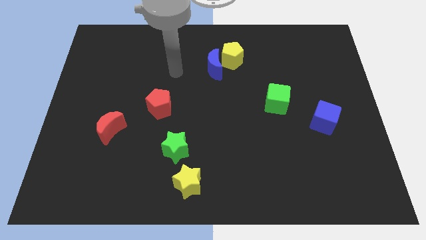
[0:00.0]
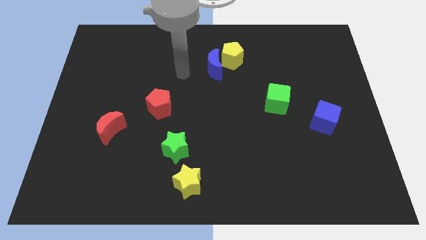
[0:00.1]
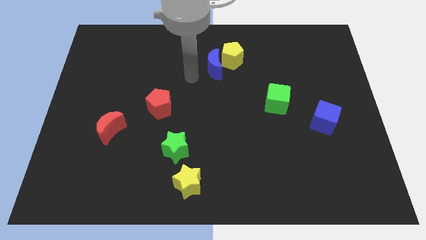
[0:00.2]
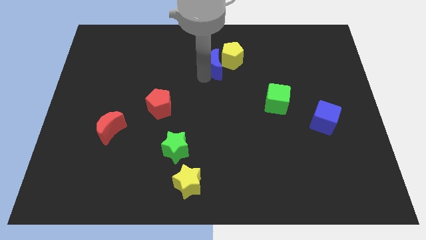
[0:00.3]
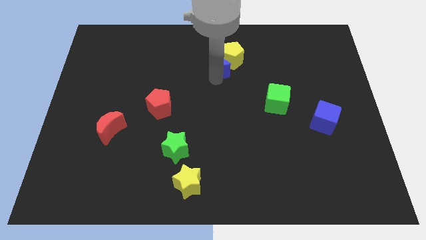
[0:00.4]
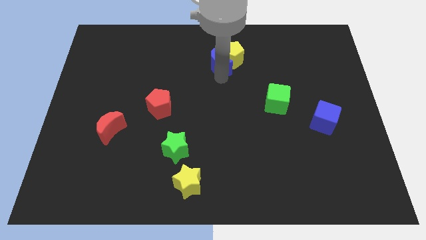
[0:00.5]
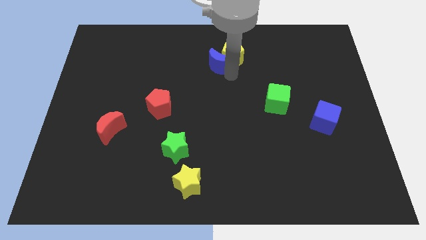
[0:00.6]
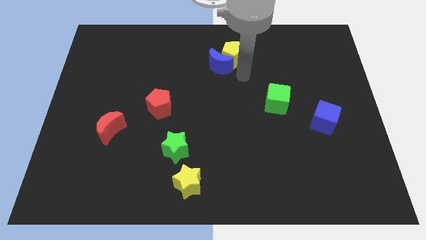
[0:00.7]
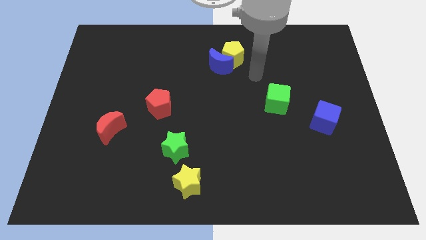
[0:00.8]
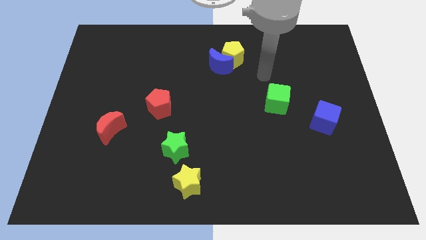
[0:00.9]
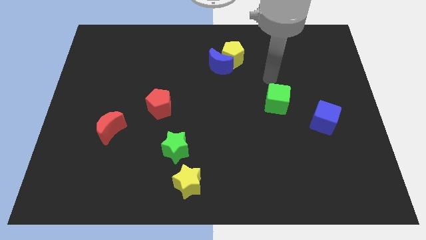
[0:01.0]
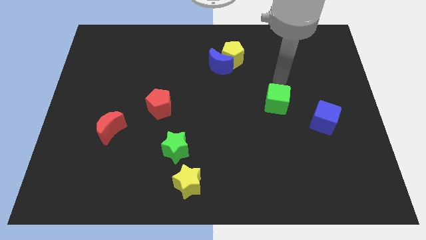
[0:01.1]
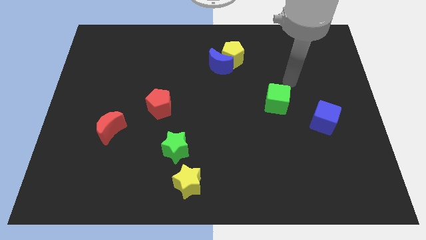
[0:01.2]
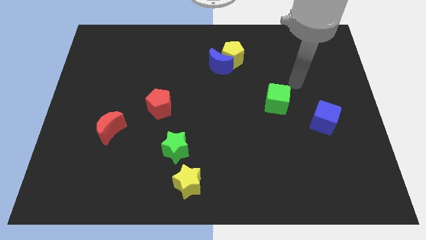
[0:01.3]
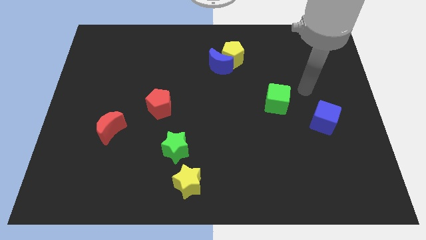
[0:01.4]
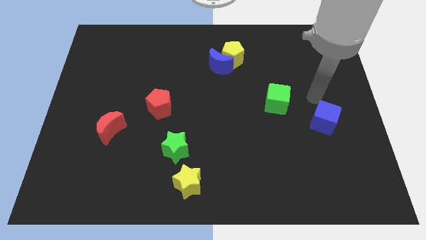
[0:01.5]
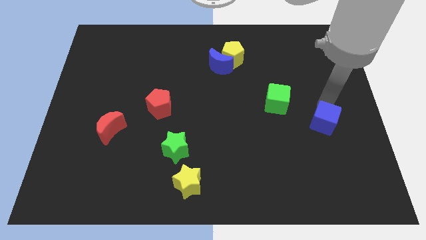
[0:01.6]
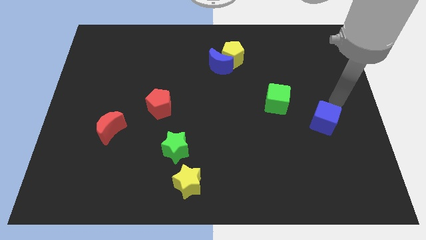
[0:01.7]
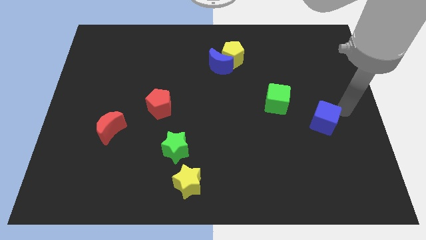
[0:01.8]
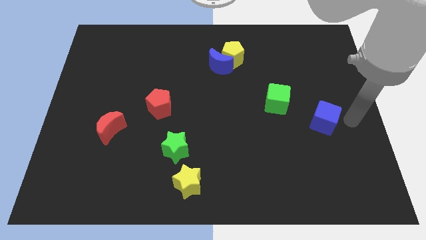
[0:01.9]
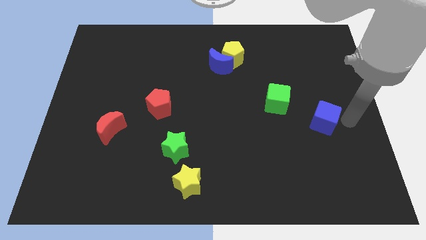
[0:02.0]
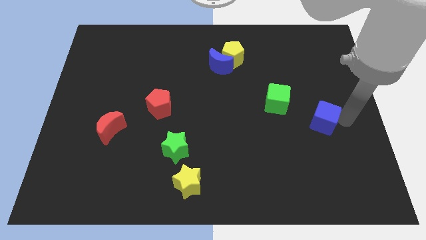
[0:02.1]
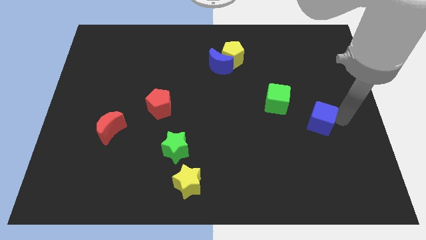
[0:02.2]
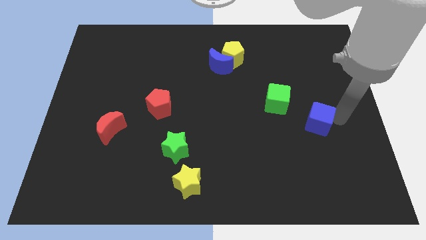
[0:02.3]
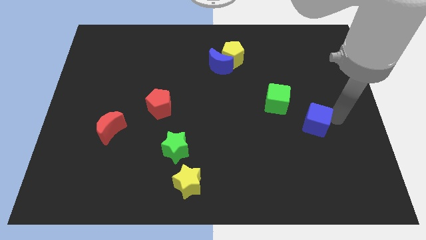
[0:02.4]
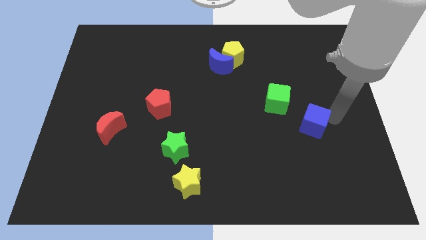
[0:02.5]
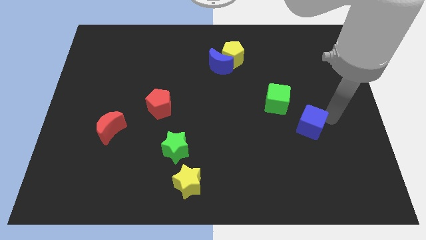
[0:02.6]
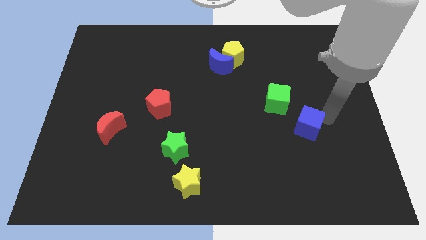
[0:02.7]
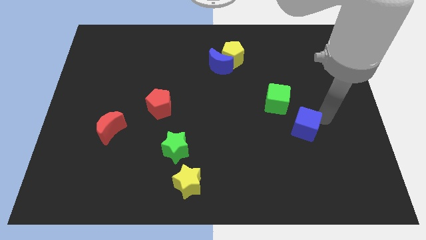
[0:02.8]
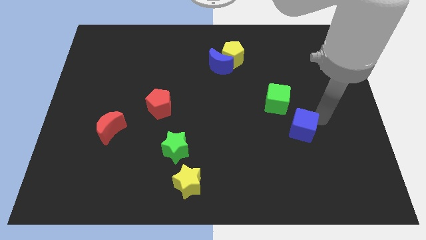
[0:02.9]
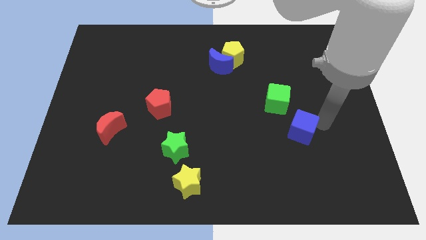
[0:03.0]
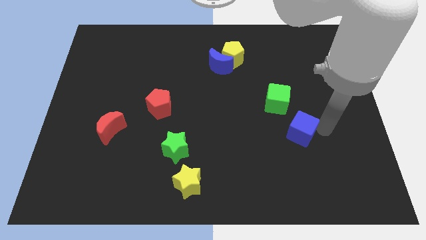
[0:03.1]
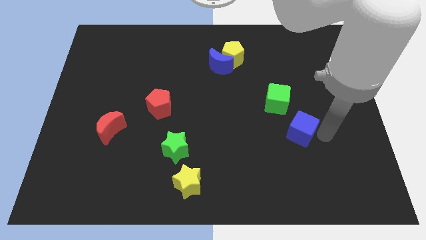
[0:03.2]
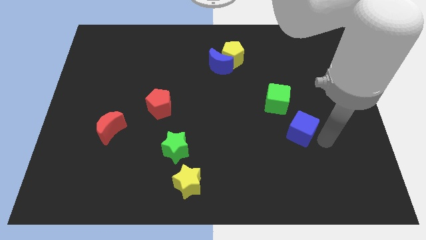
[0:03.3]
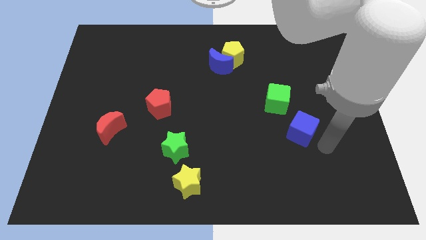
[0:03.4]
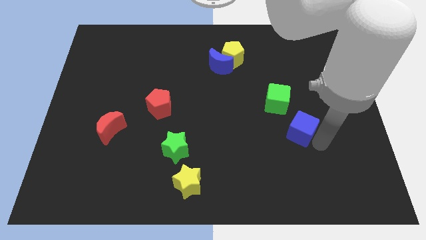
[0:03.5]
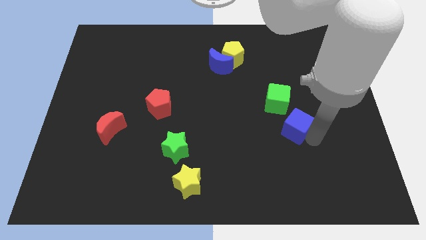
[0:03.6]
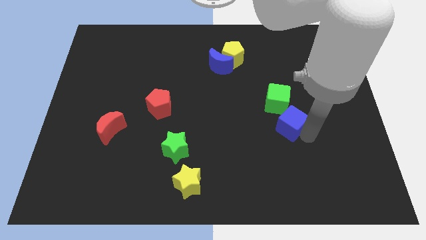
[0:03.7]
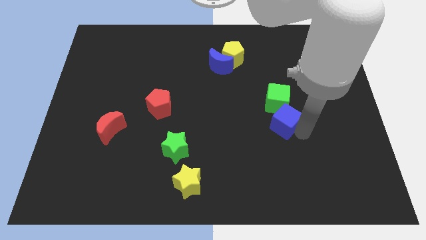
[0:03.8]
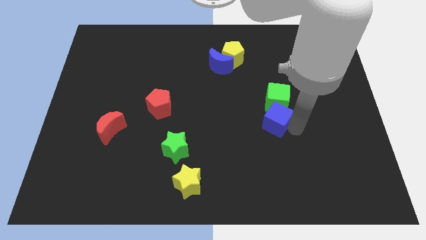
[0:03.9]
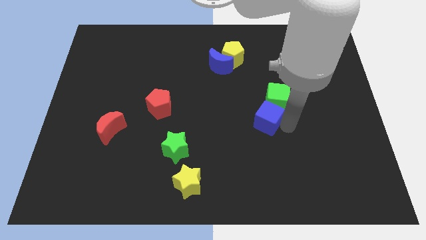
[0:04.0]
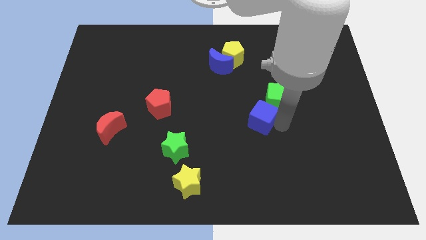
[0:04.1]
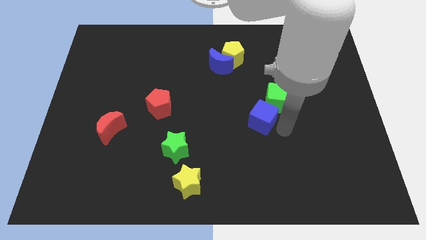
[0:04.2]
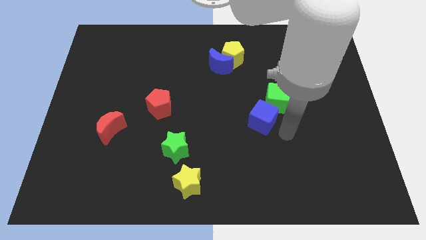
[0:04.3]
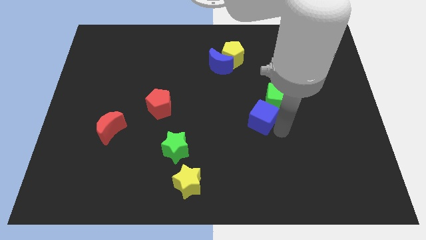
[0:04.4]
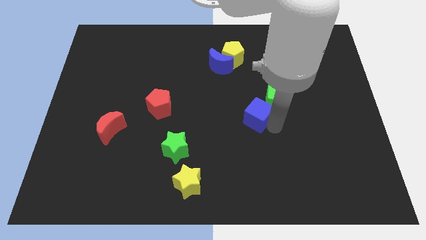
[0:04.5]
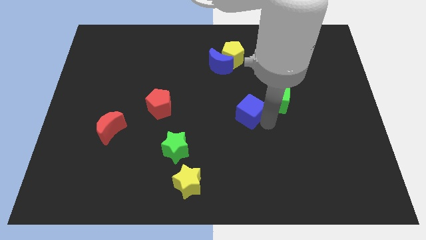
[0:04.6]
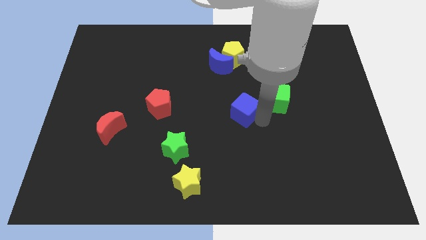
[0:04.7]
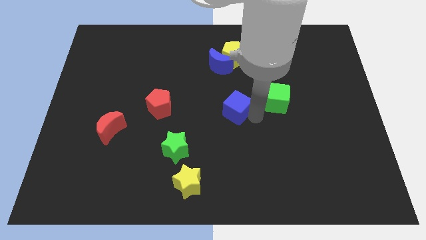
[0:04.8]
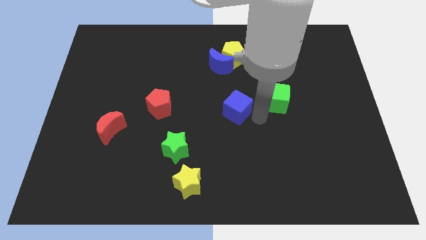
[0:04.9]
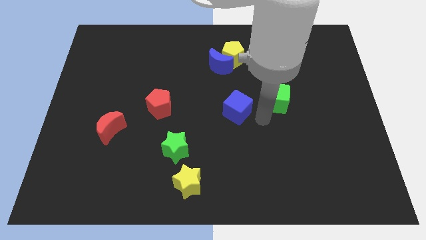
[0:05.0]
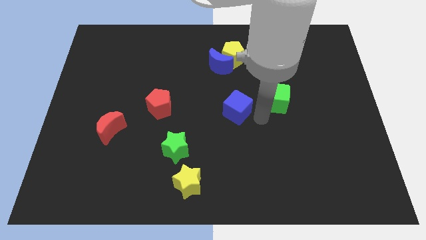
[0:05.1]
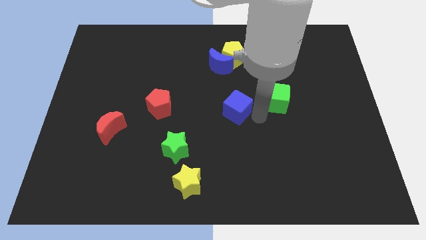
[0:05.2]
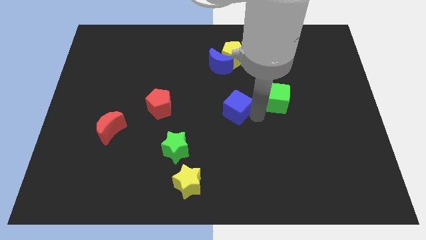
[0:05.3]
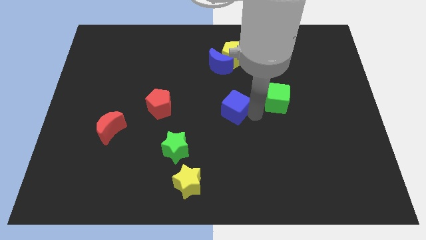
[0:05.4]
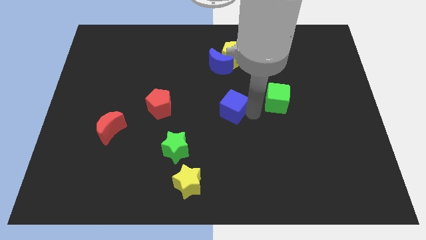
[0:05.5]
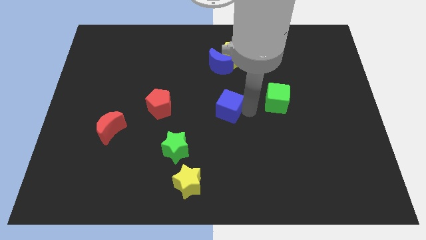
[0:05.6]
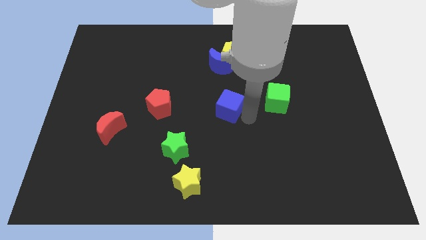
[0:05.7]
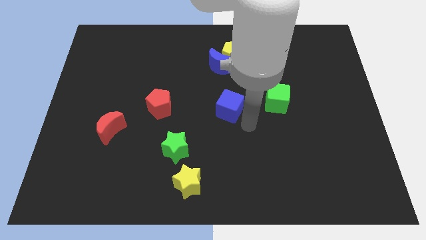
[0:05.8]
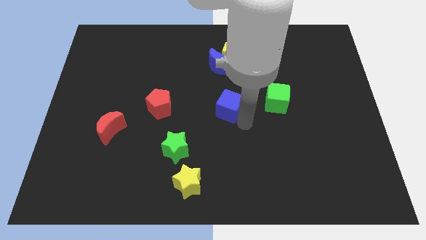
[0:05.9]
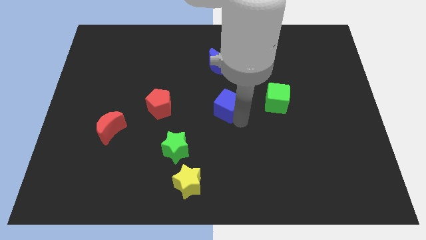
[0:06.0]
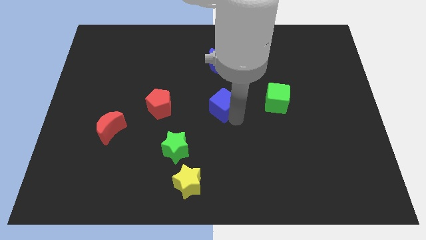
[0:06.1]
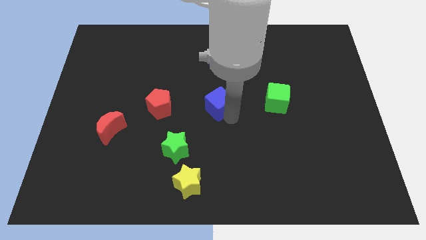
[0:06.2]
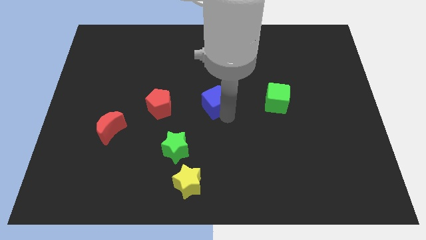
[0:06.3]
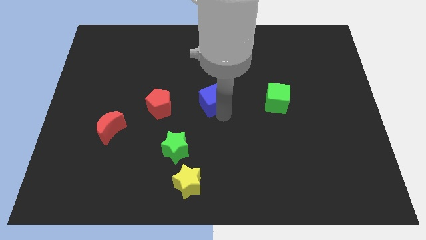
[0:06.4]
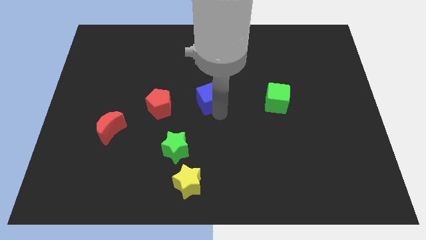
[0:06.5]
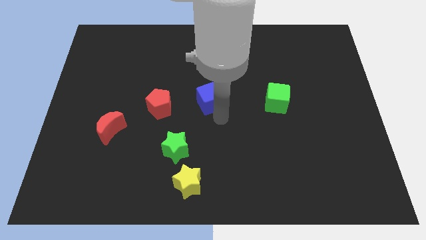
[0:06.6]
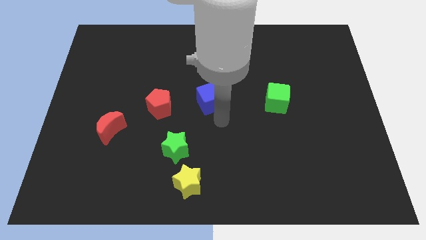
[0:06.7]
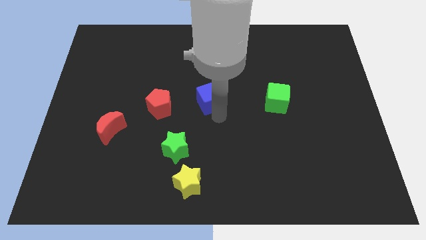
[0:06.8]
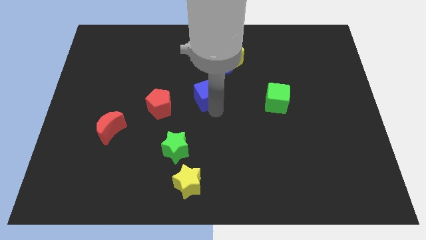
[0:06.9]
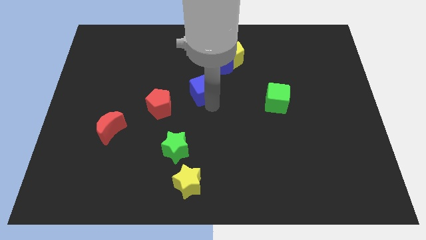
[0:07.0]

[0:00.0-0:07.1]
move the blue cube to the bottom left of the blue moon
